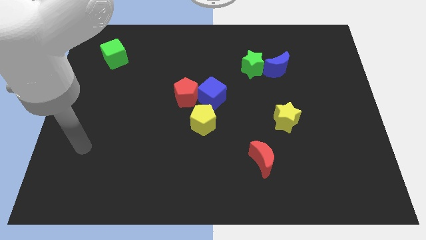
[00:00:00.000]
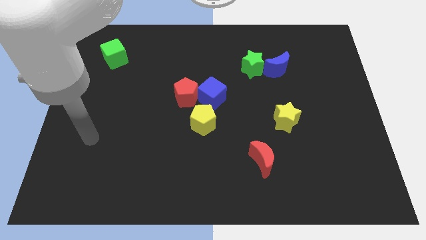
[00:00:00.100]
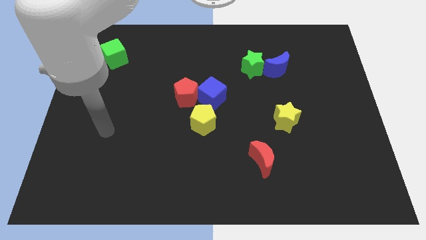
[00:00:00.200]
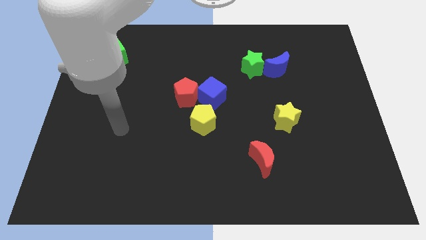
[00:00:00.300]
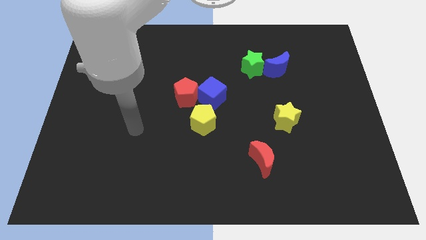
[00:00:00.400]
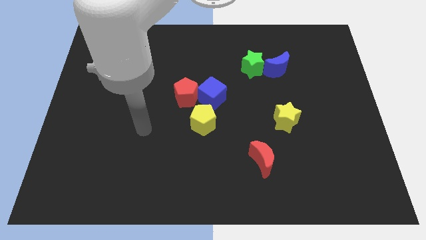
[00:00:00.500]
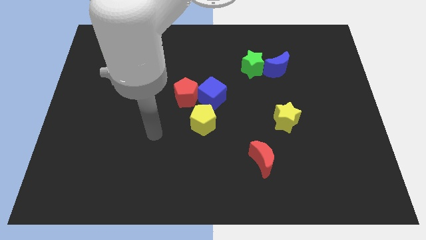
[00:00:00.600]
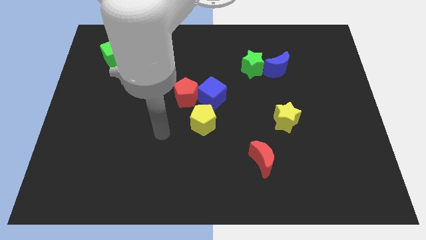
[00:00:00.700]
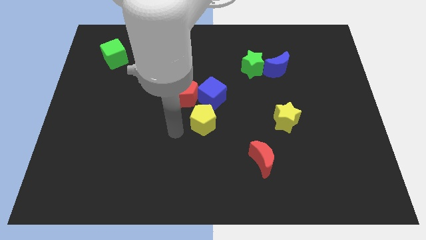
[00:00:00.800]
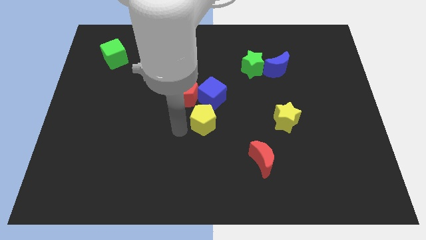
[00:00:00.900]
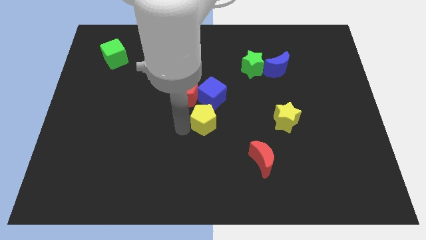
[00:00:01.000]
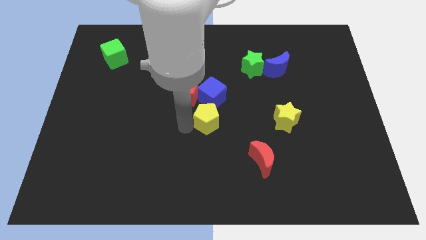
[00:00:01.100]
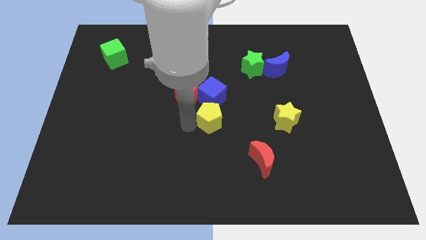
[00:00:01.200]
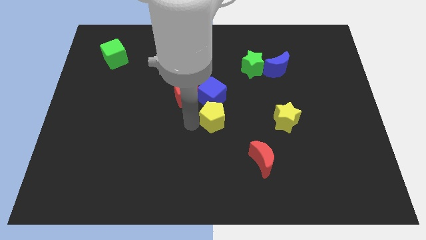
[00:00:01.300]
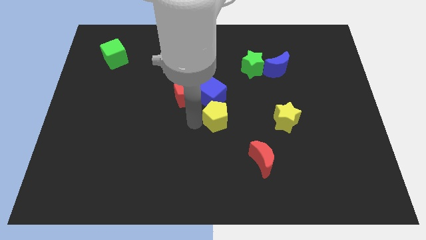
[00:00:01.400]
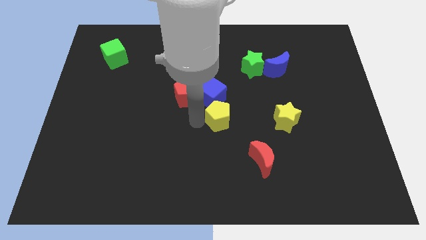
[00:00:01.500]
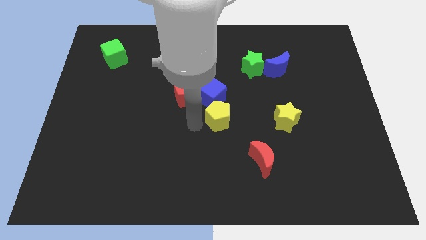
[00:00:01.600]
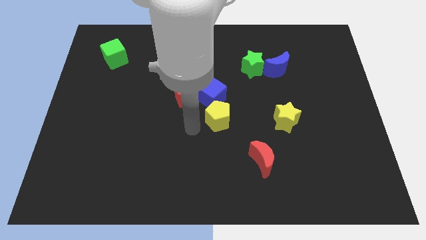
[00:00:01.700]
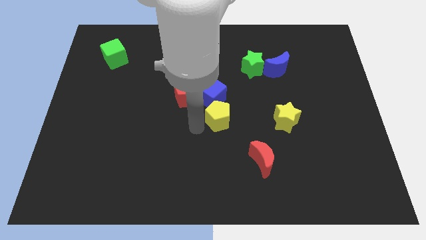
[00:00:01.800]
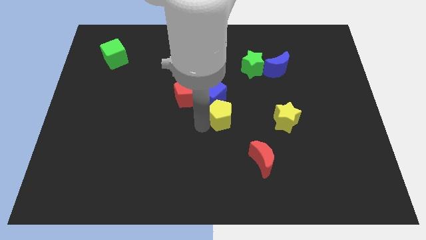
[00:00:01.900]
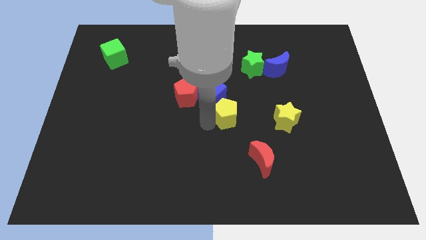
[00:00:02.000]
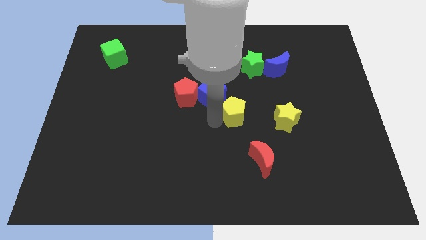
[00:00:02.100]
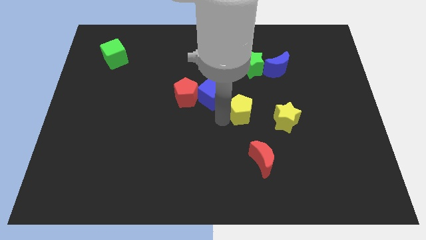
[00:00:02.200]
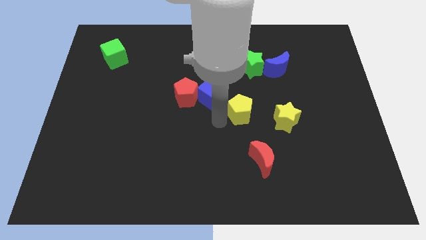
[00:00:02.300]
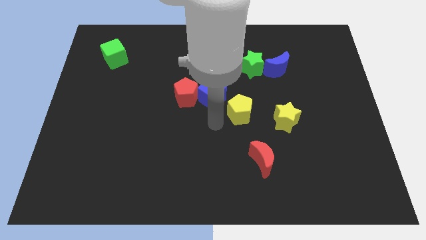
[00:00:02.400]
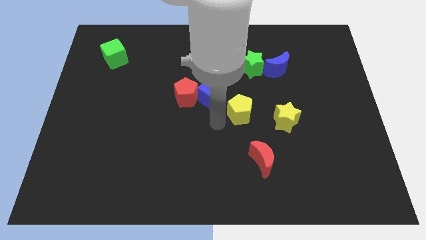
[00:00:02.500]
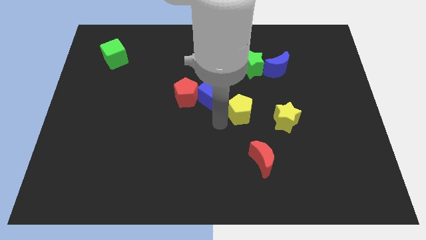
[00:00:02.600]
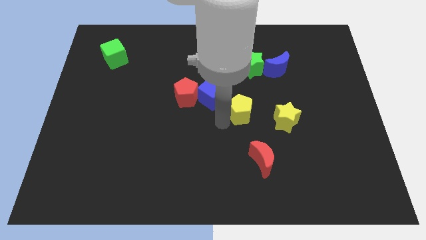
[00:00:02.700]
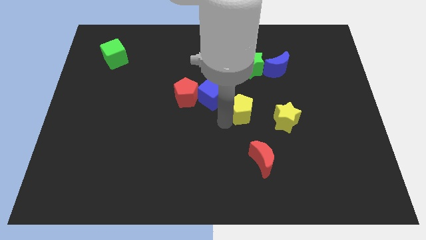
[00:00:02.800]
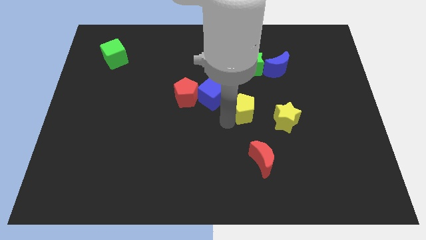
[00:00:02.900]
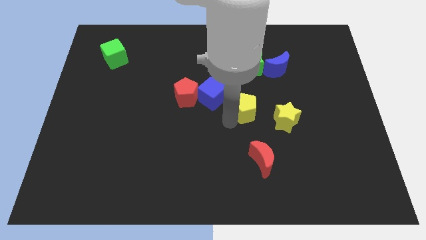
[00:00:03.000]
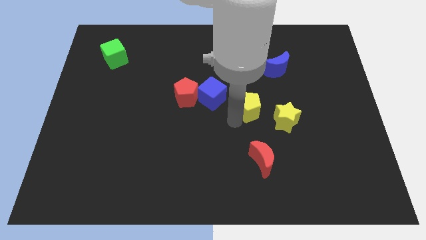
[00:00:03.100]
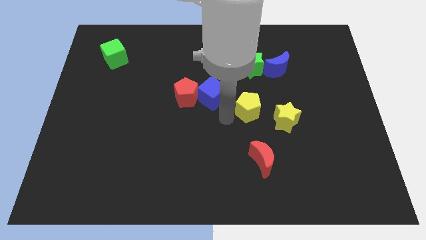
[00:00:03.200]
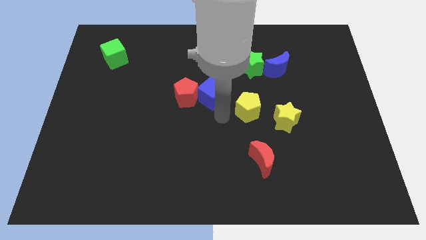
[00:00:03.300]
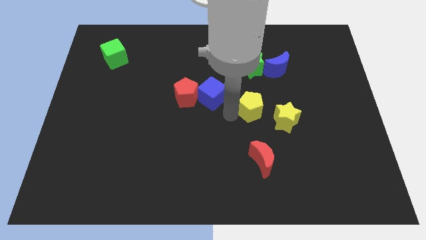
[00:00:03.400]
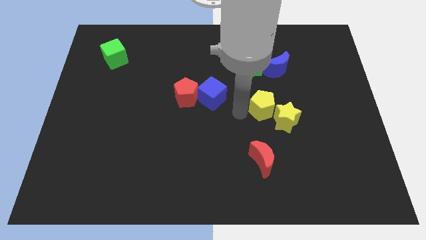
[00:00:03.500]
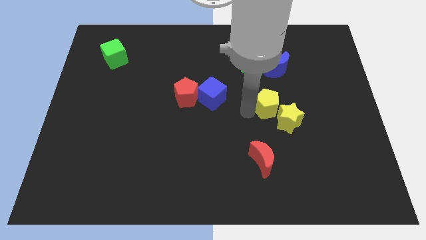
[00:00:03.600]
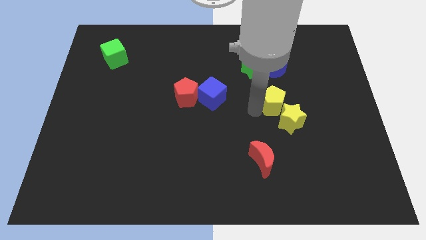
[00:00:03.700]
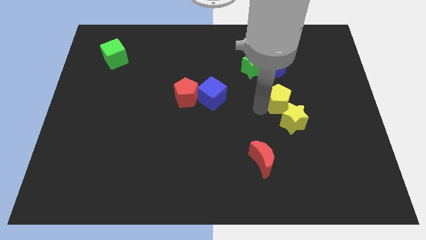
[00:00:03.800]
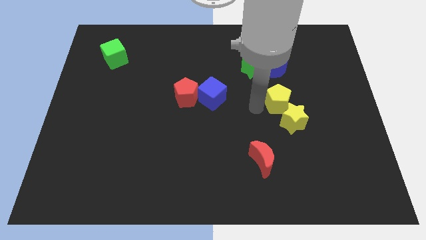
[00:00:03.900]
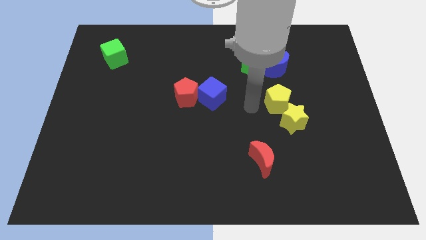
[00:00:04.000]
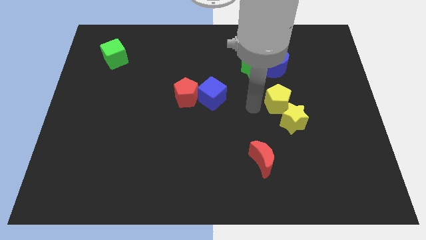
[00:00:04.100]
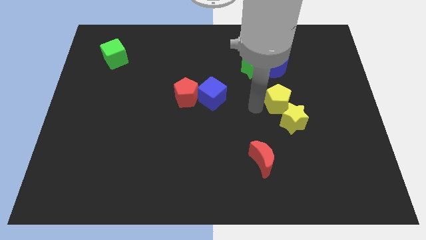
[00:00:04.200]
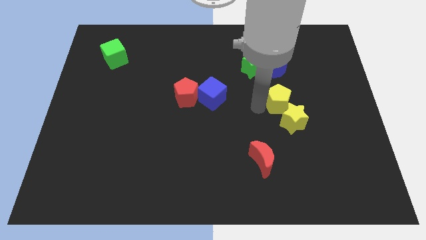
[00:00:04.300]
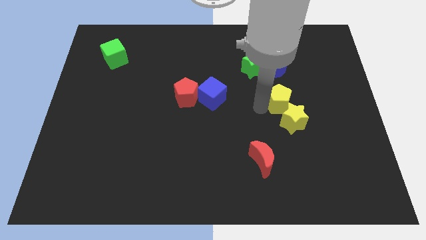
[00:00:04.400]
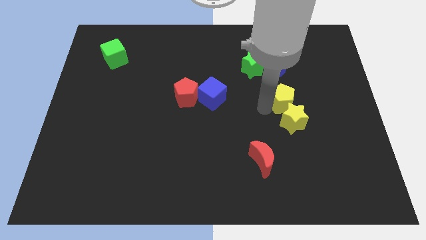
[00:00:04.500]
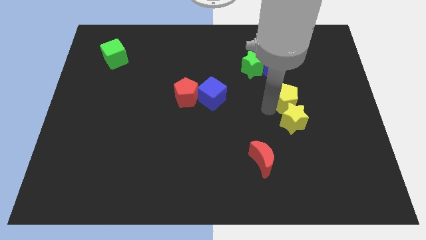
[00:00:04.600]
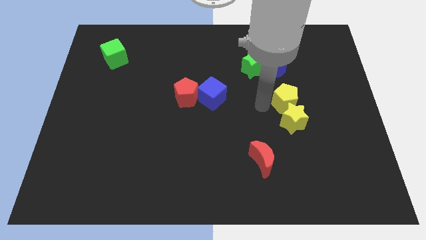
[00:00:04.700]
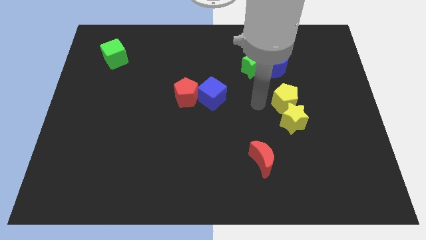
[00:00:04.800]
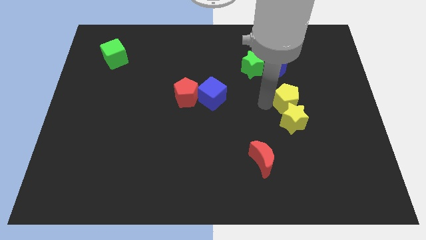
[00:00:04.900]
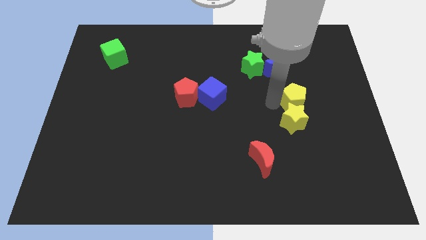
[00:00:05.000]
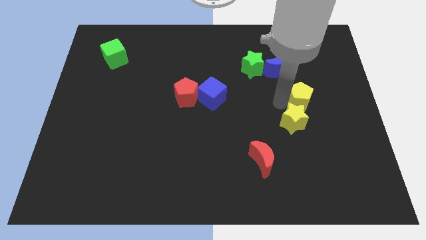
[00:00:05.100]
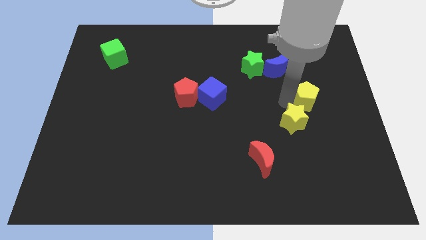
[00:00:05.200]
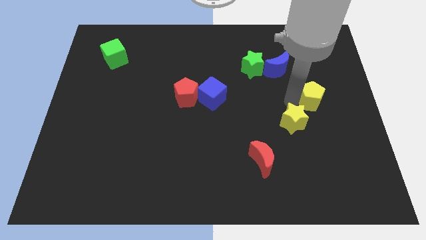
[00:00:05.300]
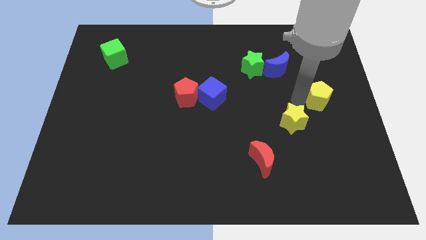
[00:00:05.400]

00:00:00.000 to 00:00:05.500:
push the yellow pentagon to the right side
